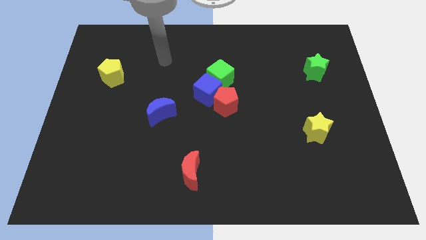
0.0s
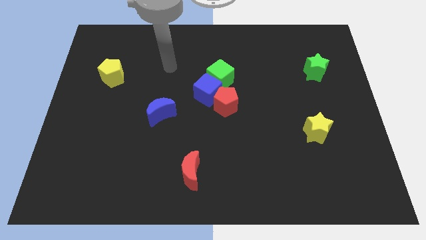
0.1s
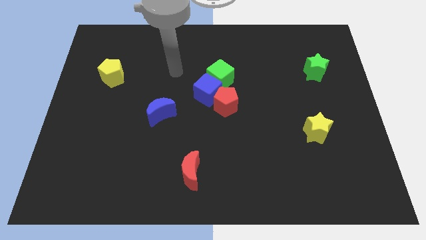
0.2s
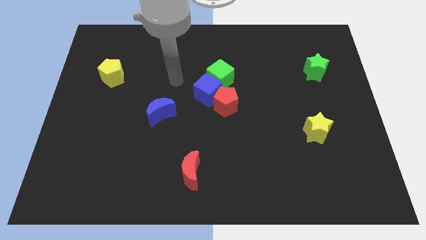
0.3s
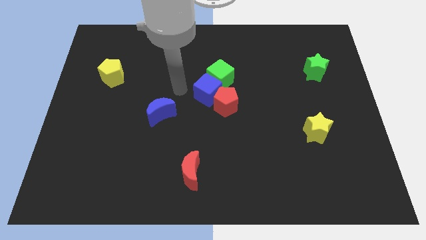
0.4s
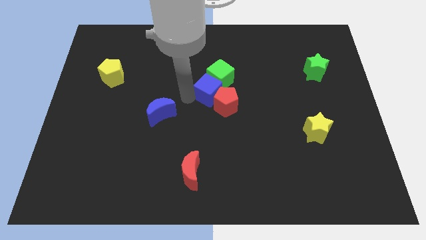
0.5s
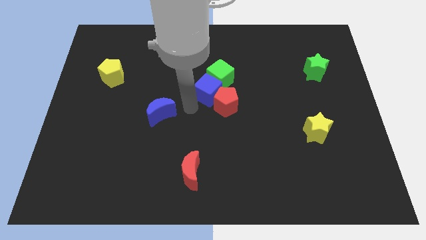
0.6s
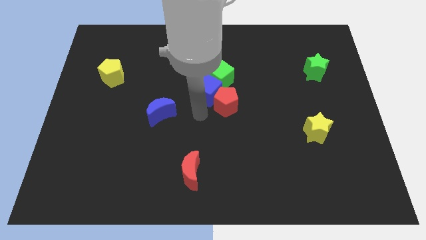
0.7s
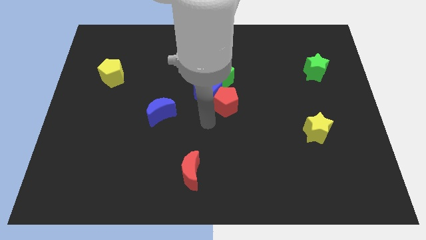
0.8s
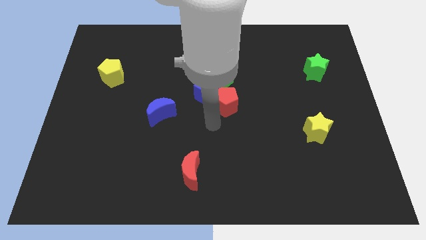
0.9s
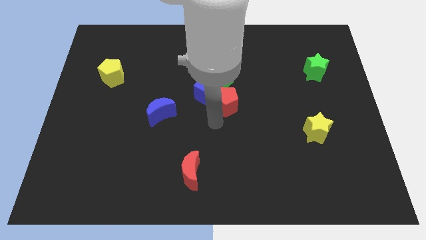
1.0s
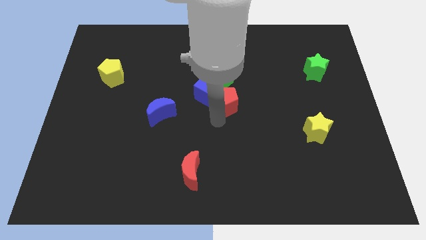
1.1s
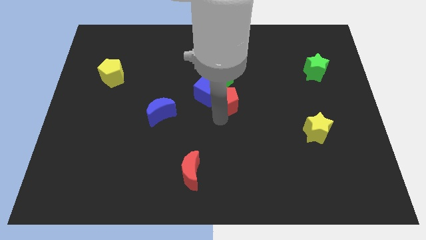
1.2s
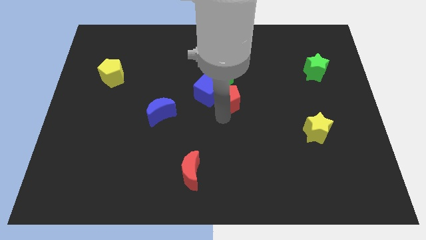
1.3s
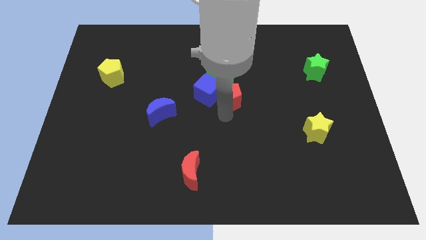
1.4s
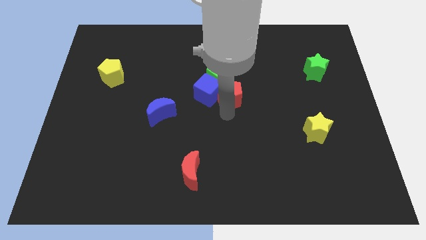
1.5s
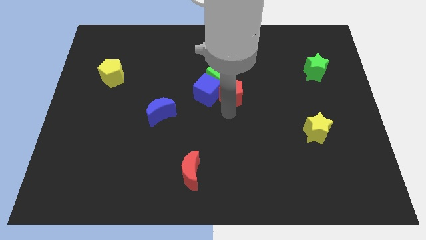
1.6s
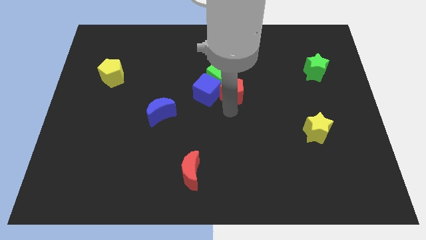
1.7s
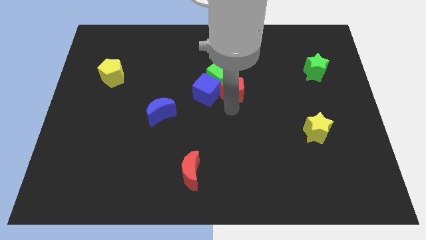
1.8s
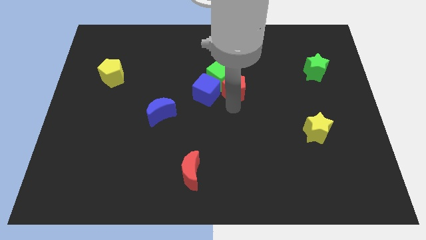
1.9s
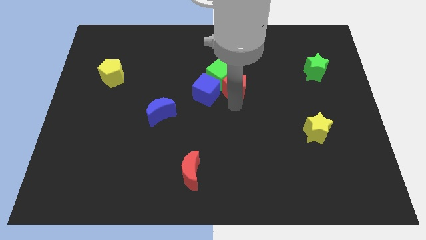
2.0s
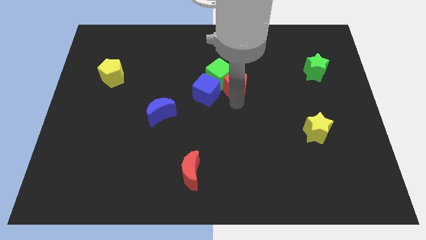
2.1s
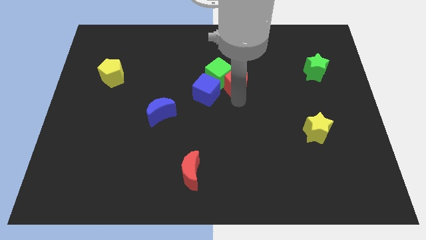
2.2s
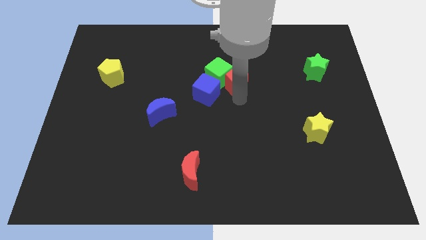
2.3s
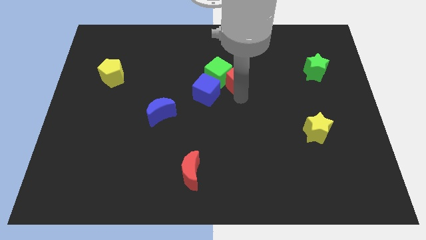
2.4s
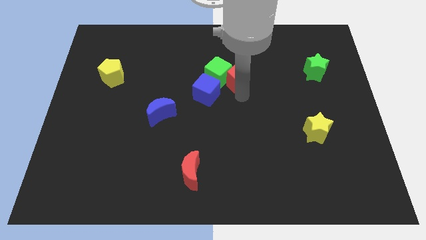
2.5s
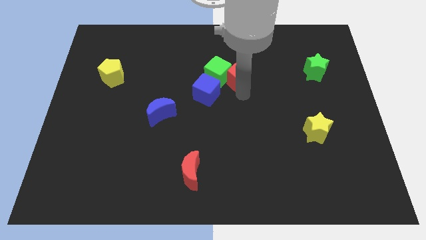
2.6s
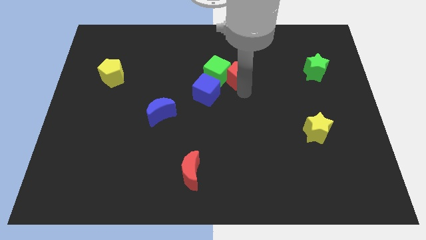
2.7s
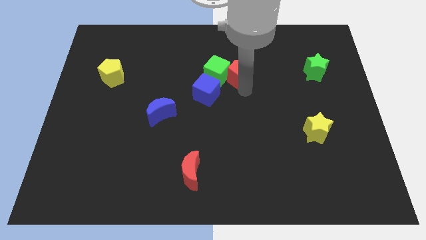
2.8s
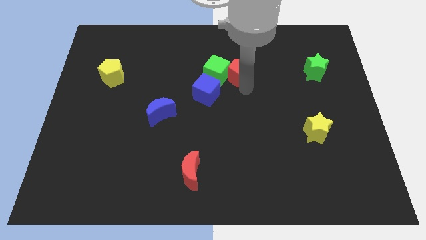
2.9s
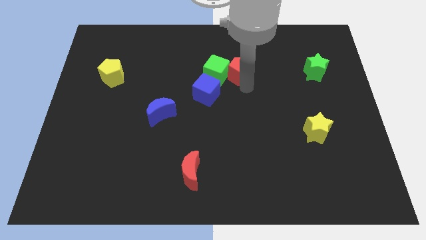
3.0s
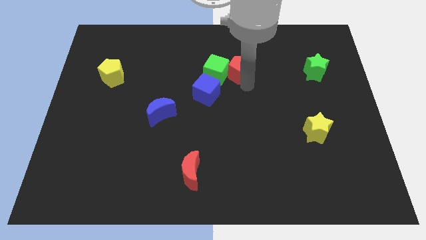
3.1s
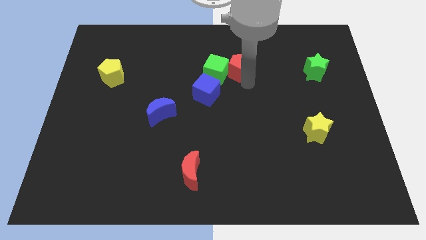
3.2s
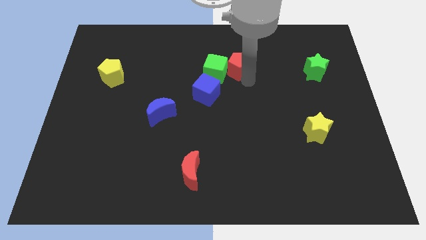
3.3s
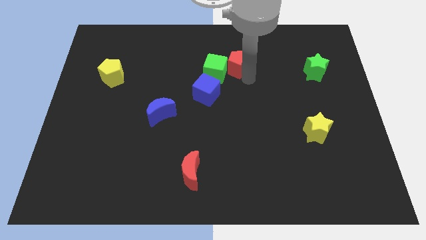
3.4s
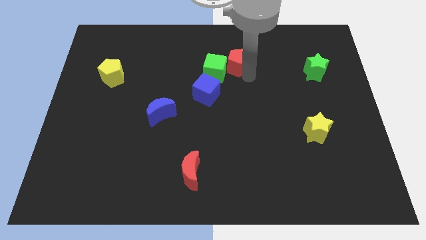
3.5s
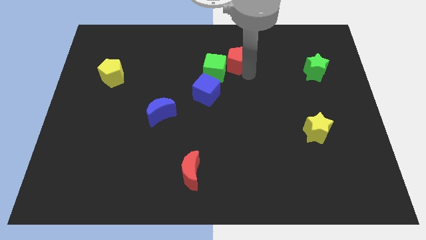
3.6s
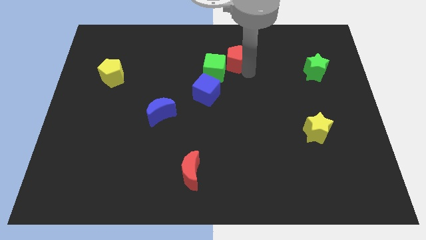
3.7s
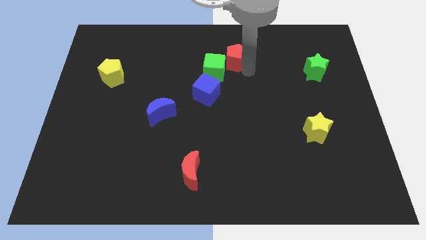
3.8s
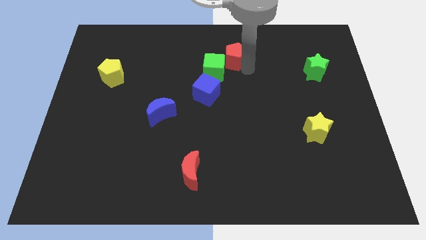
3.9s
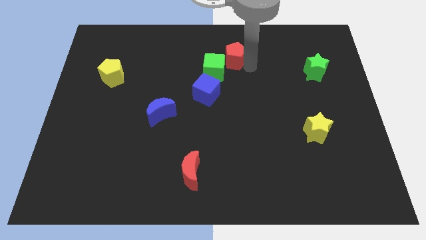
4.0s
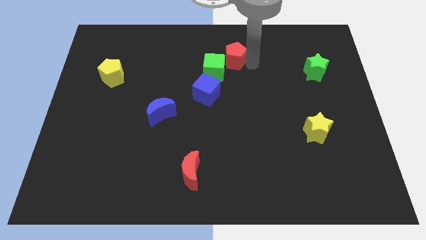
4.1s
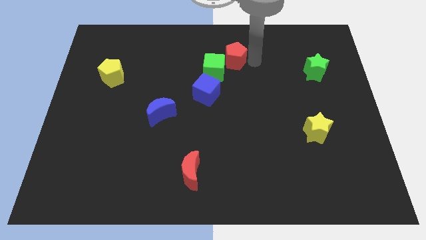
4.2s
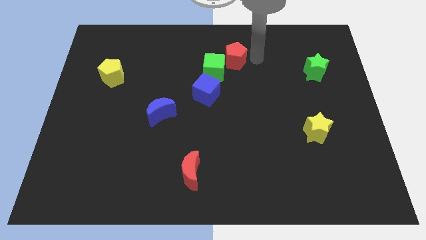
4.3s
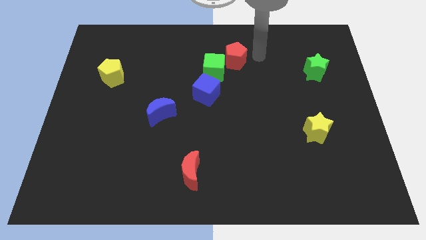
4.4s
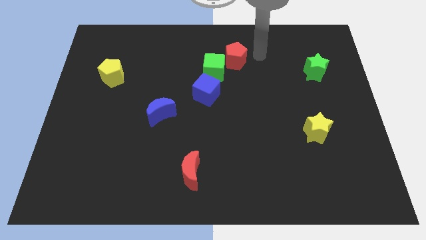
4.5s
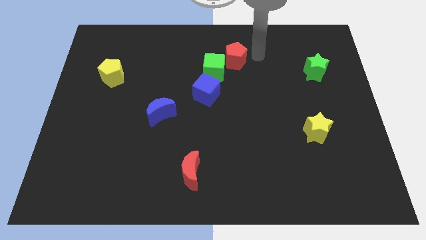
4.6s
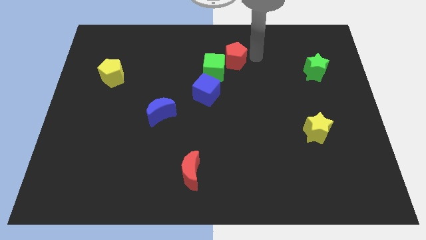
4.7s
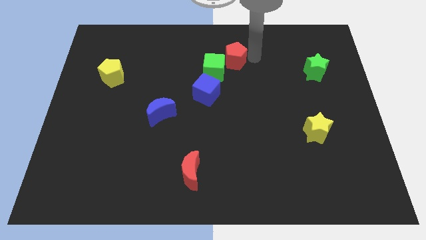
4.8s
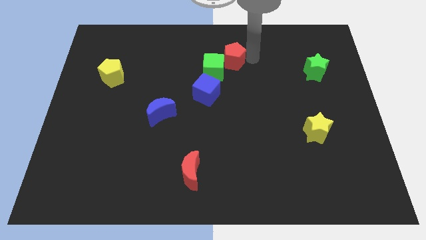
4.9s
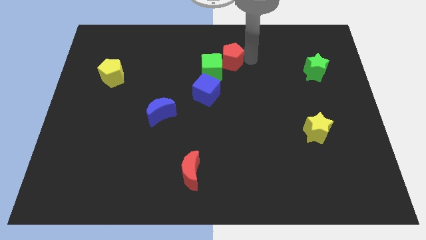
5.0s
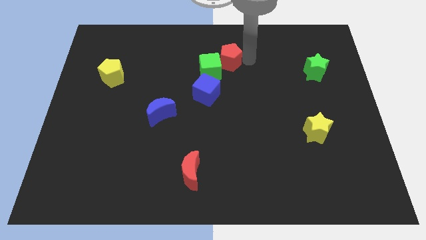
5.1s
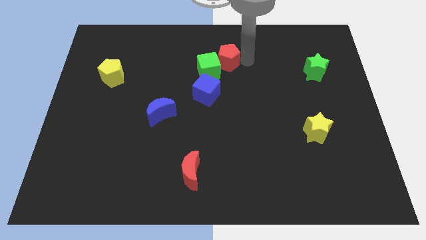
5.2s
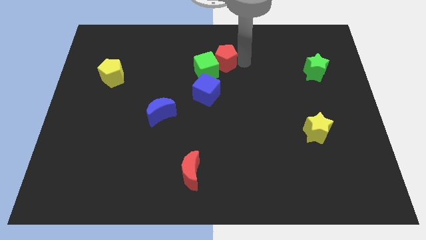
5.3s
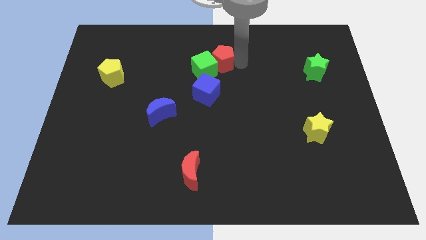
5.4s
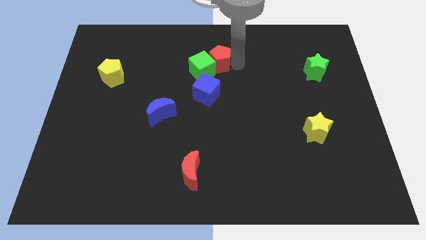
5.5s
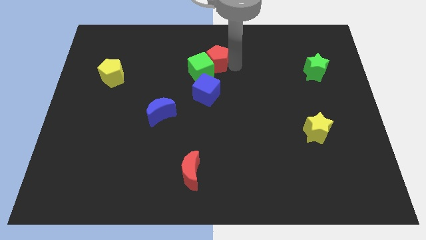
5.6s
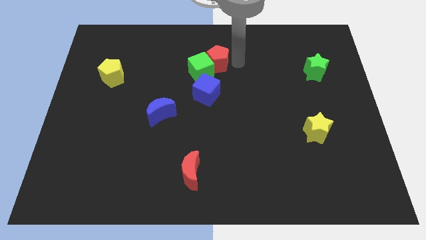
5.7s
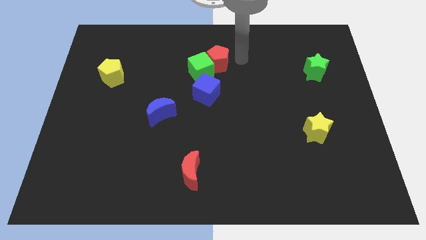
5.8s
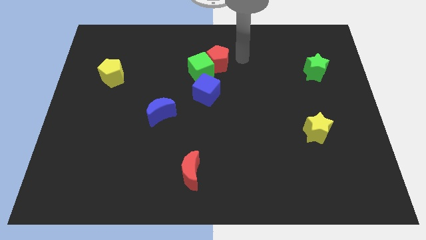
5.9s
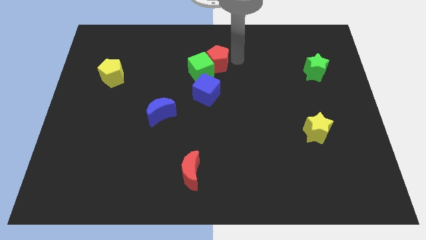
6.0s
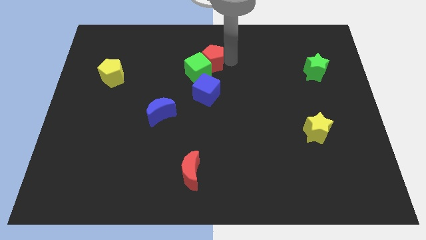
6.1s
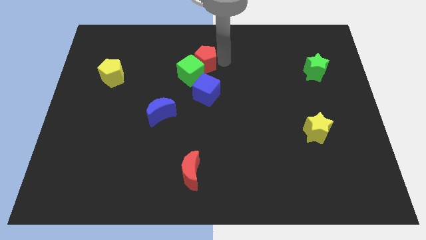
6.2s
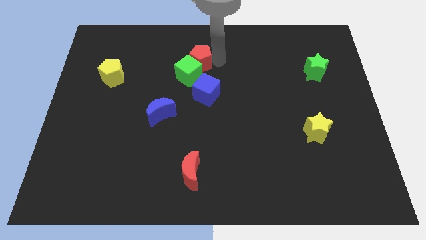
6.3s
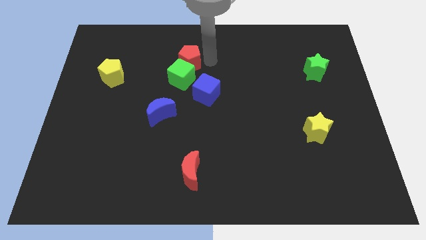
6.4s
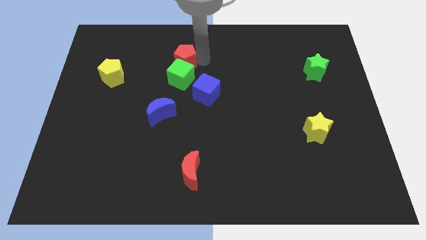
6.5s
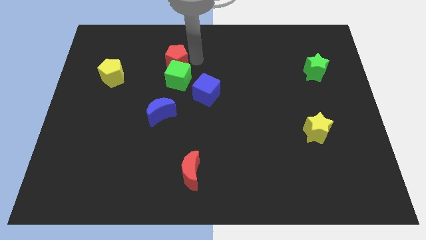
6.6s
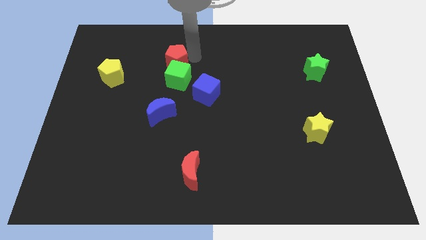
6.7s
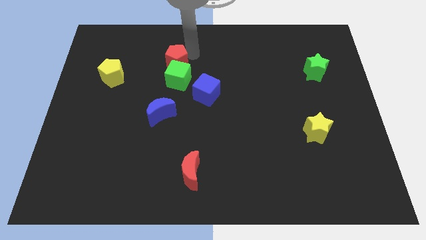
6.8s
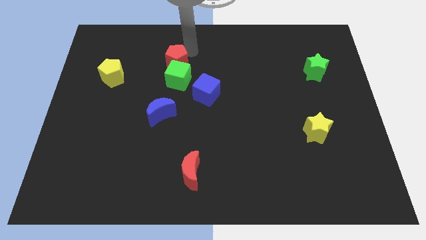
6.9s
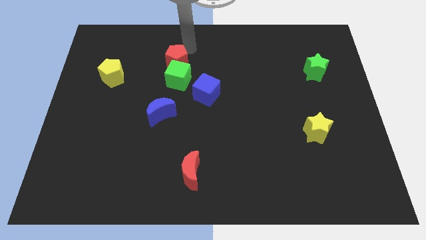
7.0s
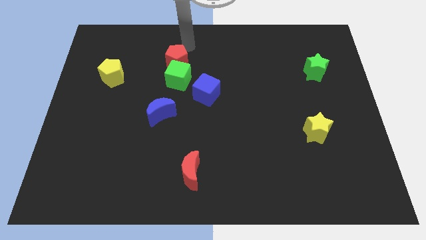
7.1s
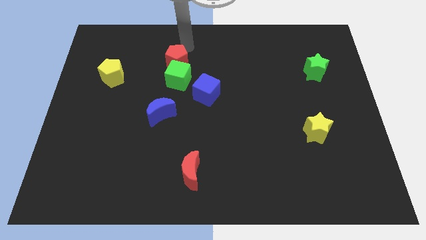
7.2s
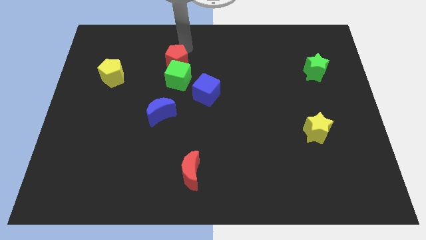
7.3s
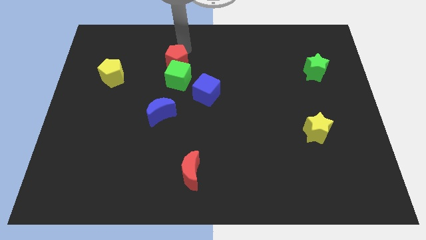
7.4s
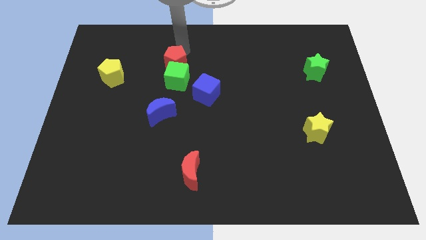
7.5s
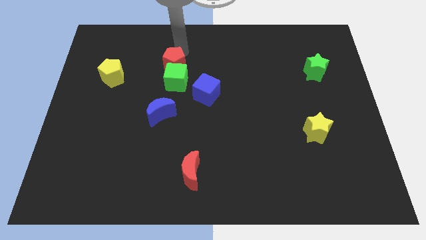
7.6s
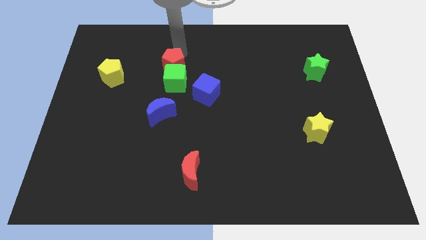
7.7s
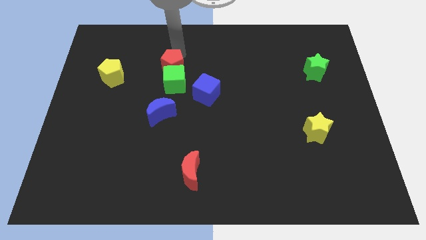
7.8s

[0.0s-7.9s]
move the red pentagon just right of the yellow pentagon

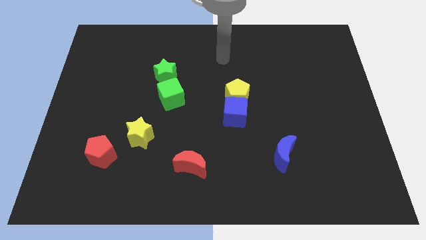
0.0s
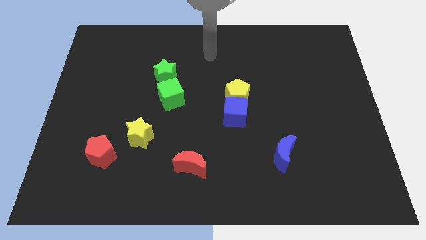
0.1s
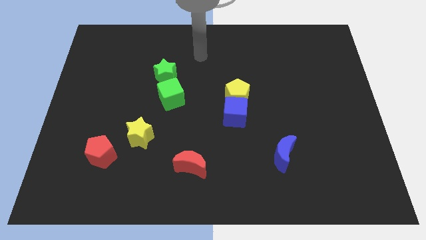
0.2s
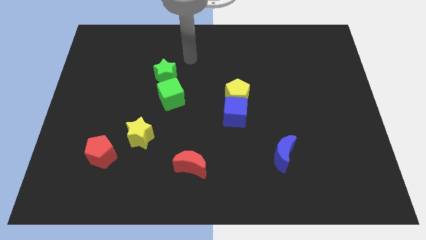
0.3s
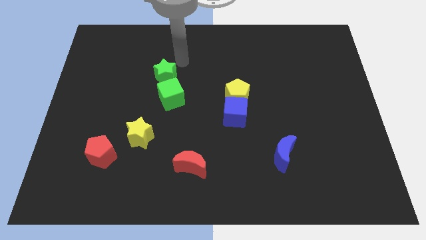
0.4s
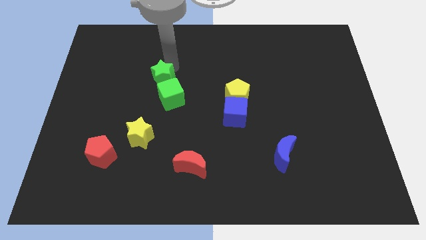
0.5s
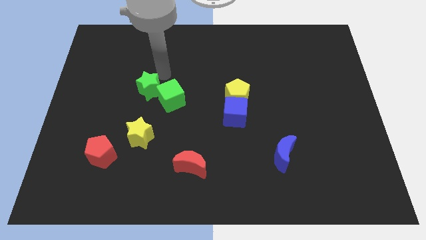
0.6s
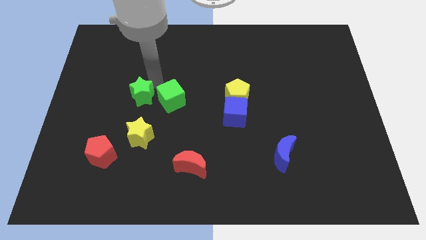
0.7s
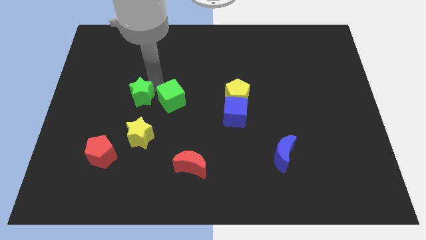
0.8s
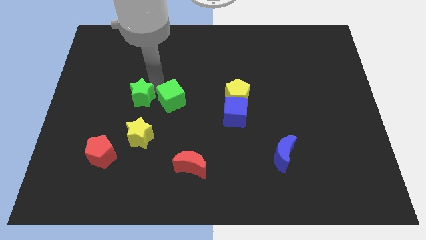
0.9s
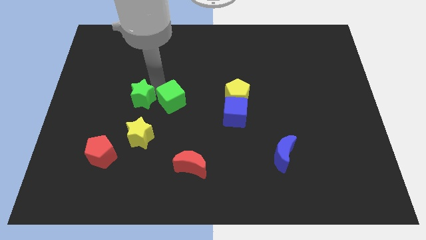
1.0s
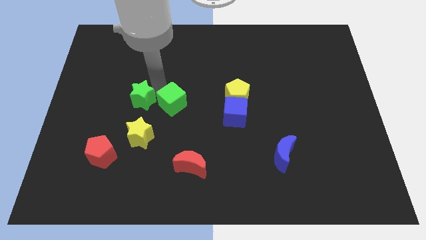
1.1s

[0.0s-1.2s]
push the green cube just left of the blue cube
